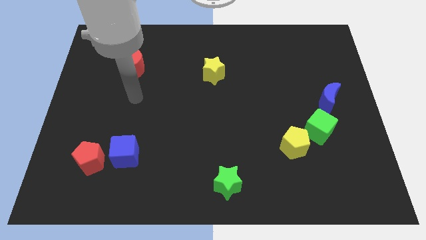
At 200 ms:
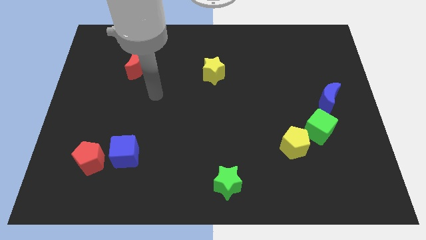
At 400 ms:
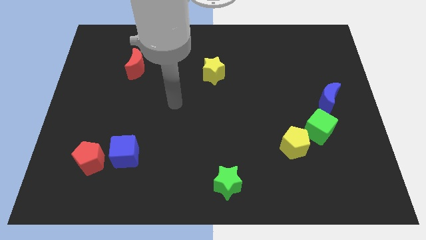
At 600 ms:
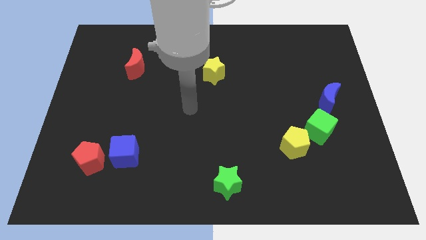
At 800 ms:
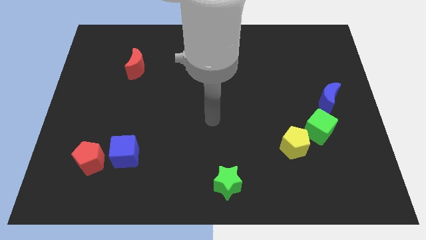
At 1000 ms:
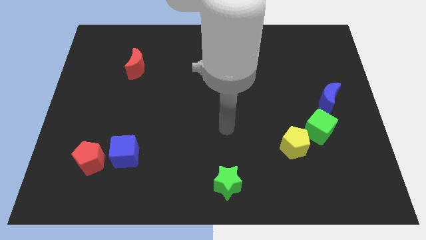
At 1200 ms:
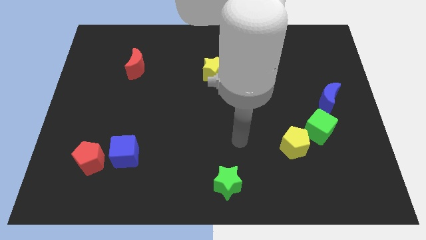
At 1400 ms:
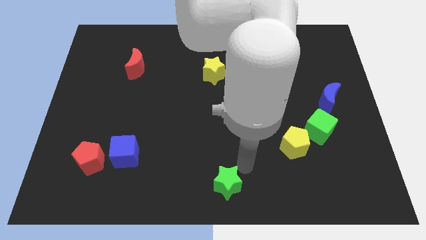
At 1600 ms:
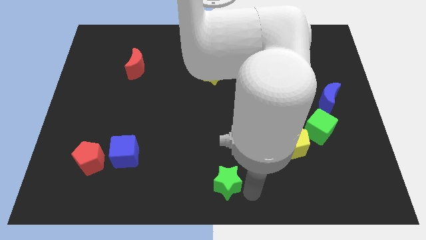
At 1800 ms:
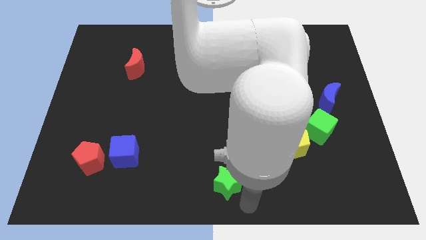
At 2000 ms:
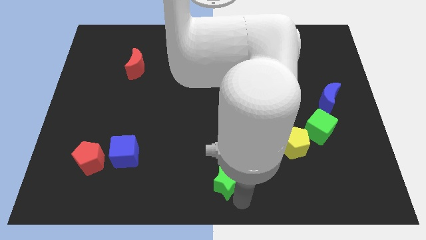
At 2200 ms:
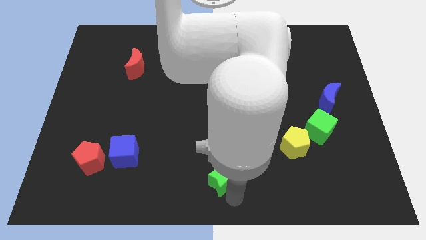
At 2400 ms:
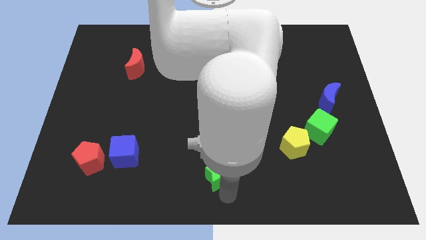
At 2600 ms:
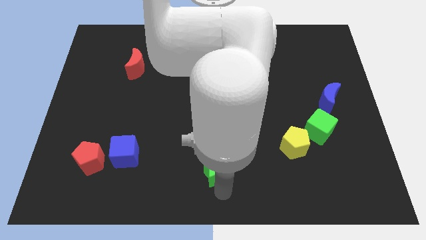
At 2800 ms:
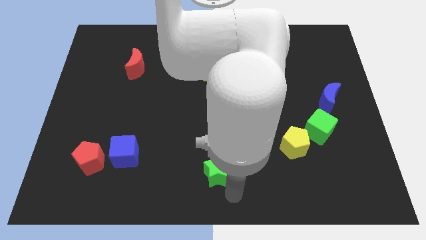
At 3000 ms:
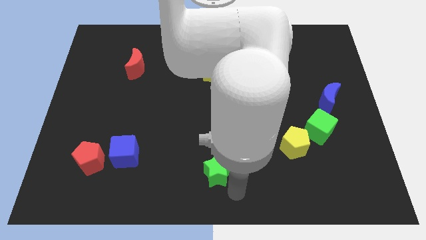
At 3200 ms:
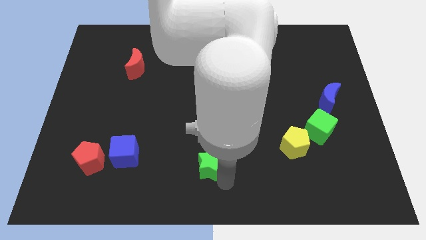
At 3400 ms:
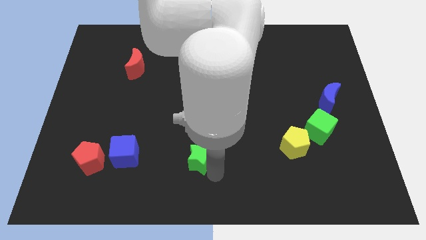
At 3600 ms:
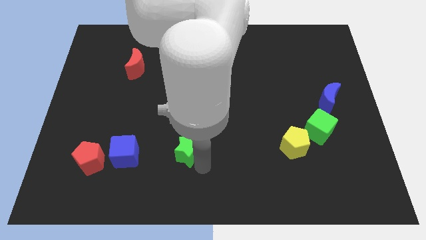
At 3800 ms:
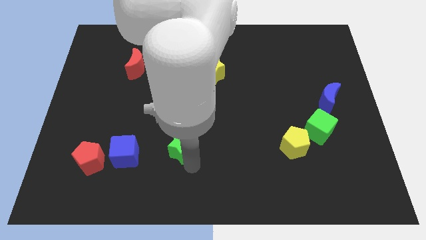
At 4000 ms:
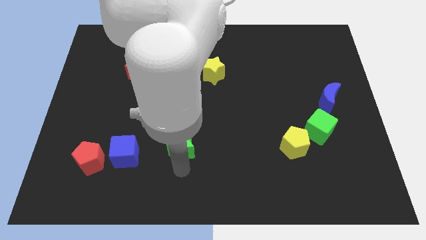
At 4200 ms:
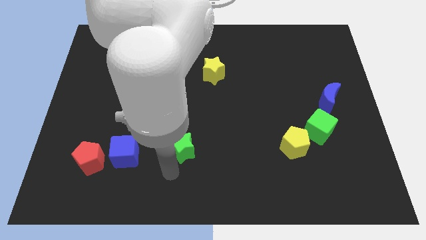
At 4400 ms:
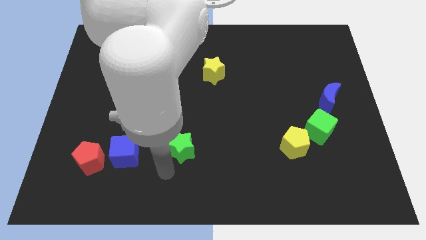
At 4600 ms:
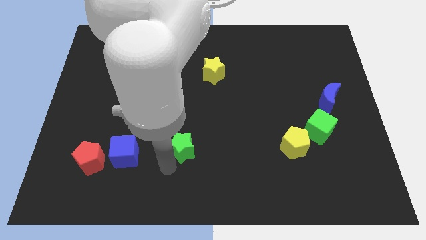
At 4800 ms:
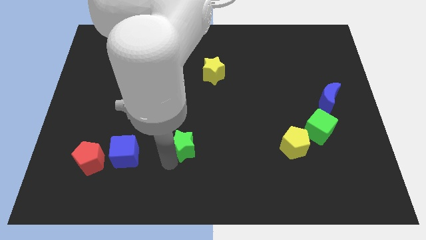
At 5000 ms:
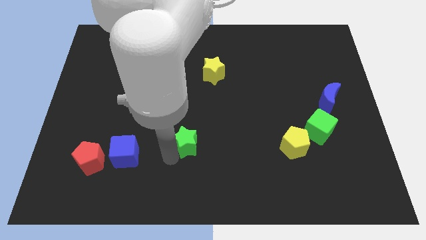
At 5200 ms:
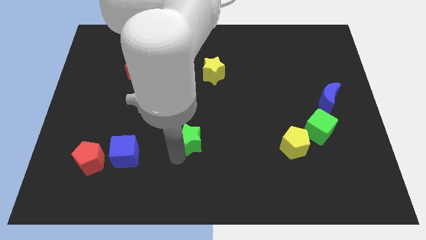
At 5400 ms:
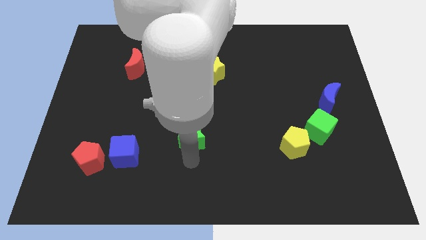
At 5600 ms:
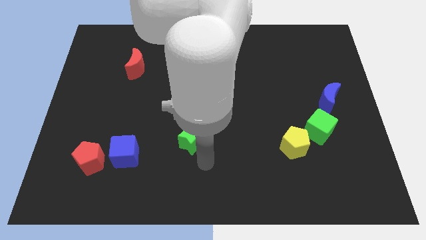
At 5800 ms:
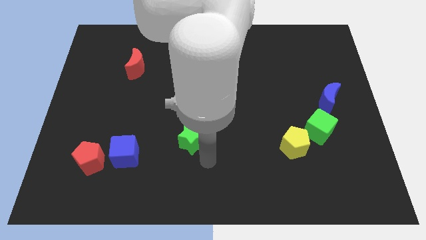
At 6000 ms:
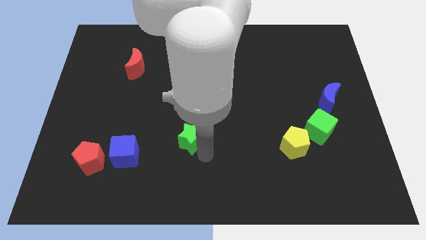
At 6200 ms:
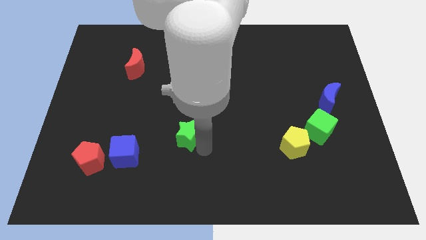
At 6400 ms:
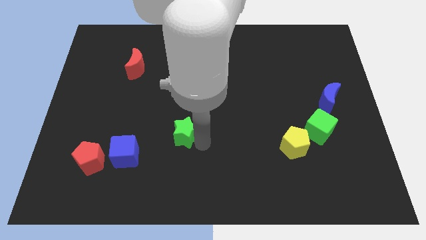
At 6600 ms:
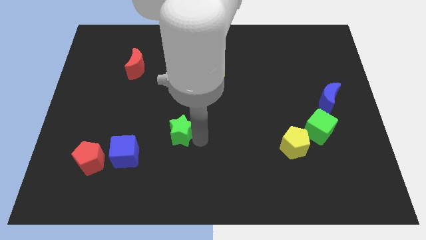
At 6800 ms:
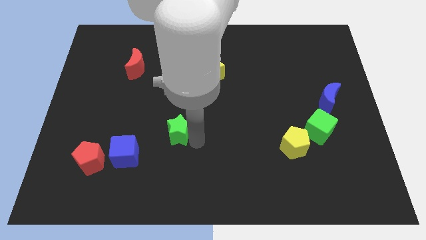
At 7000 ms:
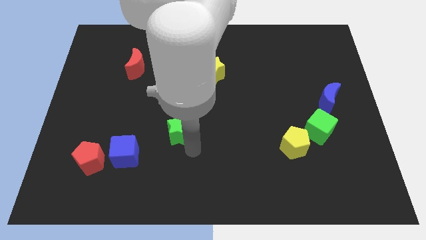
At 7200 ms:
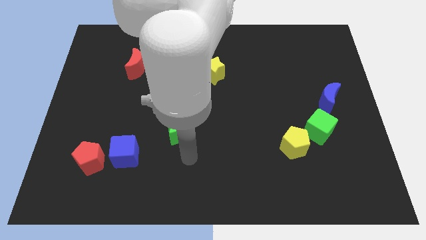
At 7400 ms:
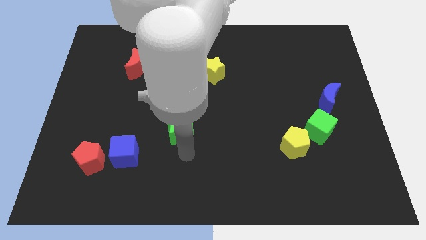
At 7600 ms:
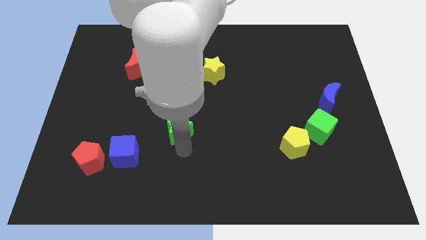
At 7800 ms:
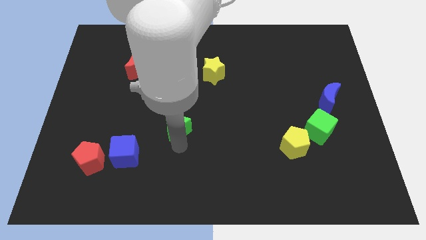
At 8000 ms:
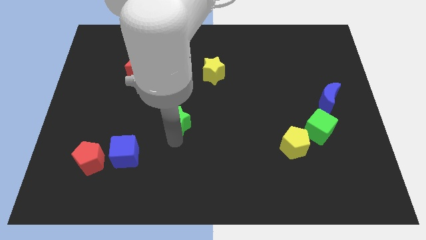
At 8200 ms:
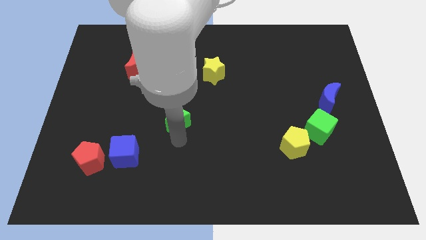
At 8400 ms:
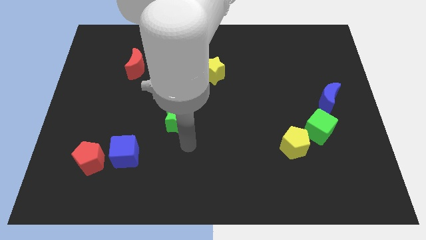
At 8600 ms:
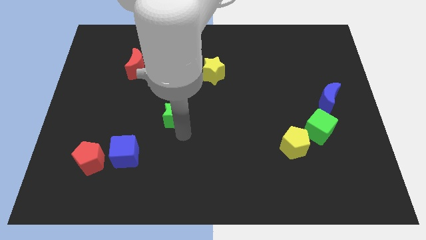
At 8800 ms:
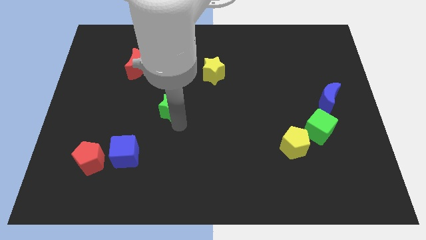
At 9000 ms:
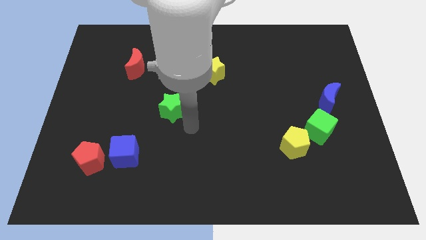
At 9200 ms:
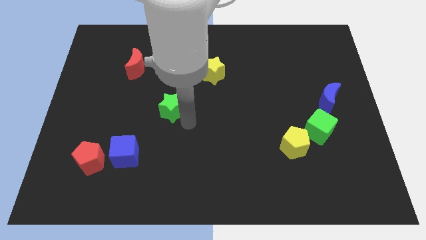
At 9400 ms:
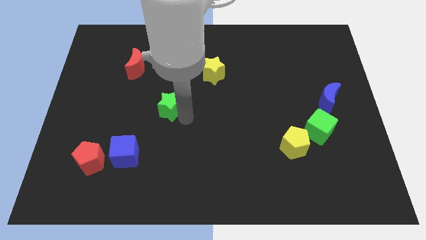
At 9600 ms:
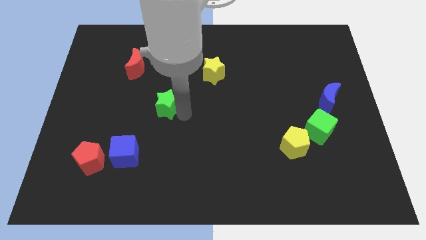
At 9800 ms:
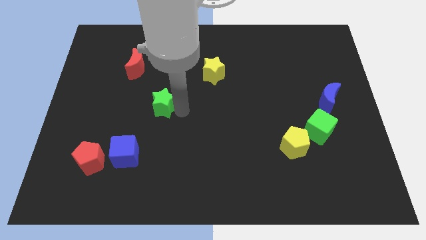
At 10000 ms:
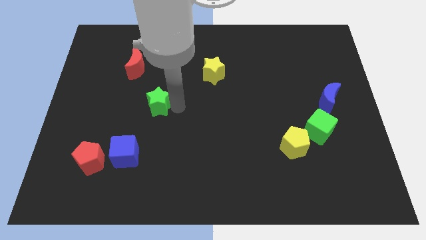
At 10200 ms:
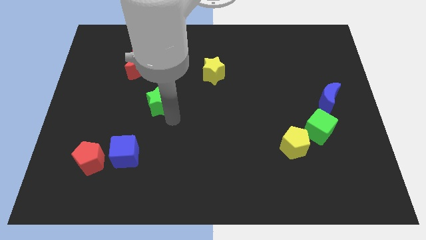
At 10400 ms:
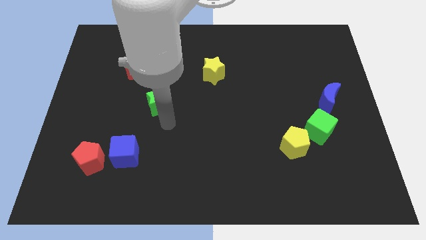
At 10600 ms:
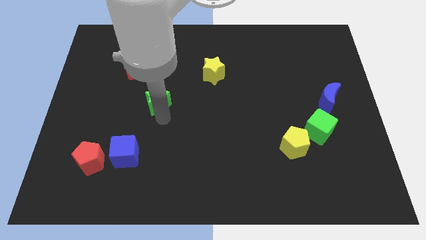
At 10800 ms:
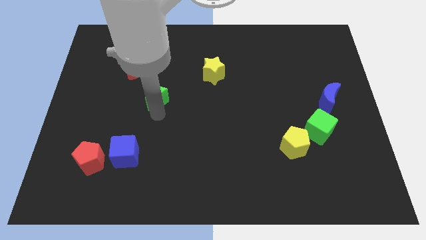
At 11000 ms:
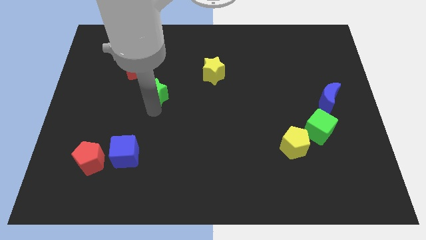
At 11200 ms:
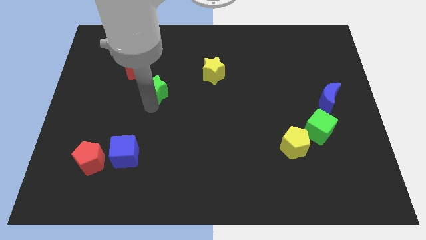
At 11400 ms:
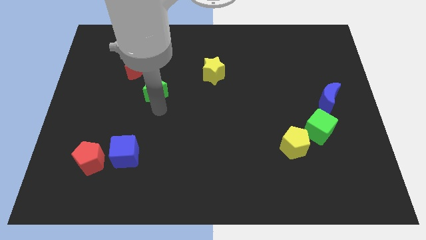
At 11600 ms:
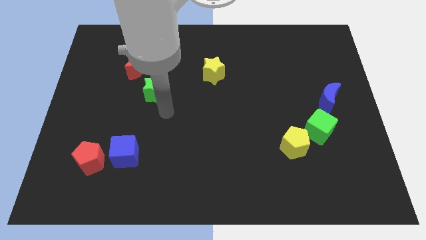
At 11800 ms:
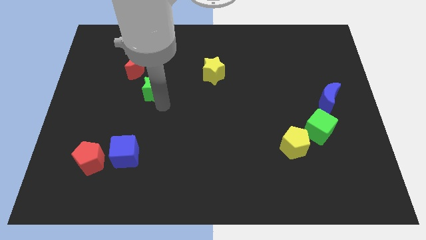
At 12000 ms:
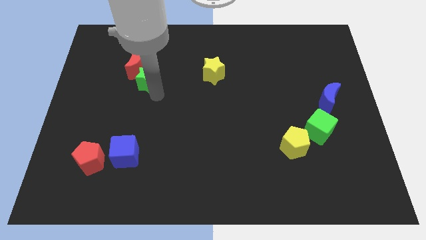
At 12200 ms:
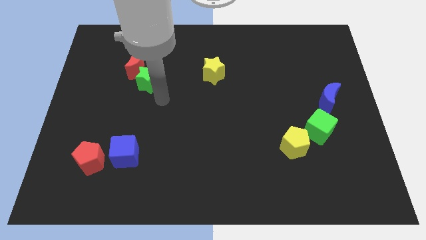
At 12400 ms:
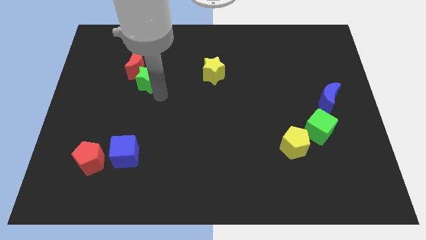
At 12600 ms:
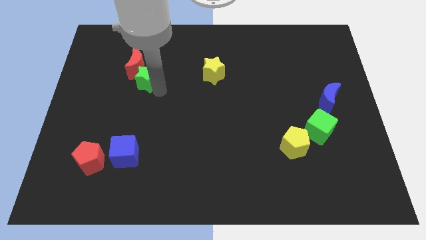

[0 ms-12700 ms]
slide the green star to the red moon
